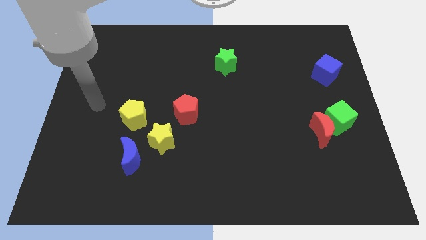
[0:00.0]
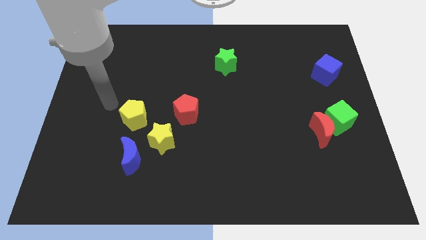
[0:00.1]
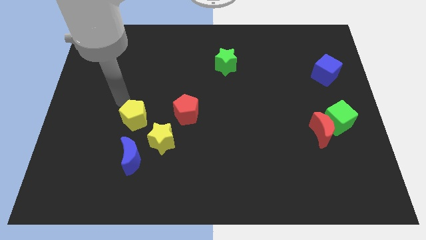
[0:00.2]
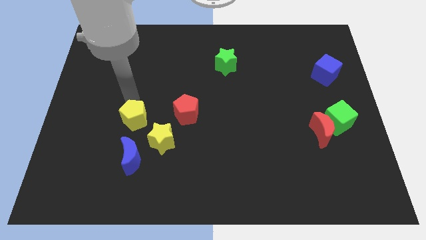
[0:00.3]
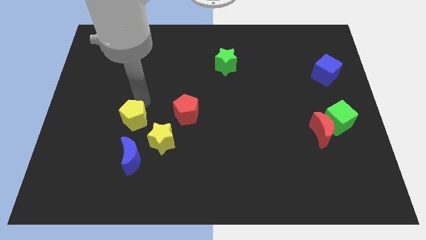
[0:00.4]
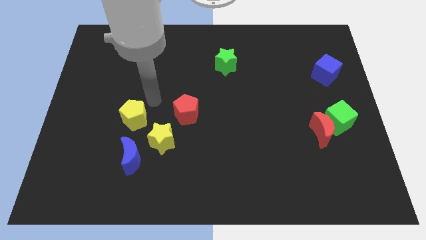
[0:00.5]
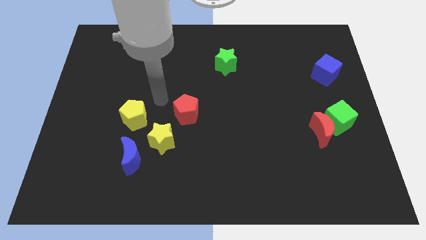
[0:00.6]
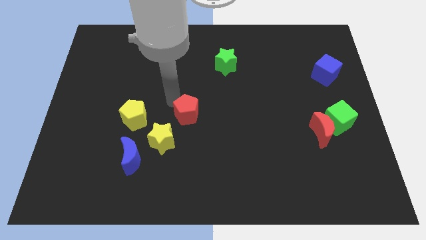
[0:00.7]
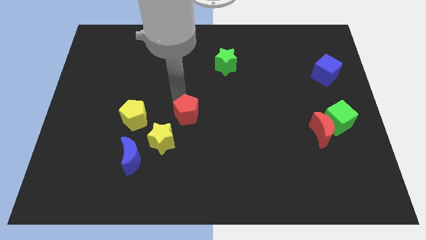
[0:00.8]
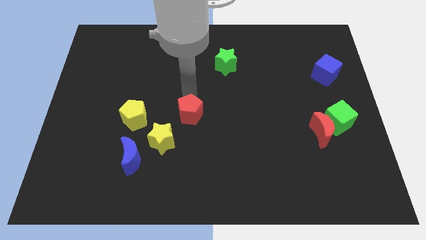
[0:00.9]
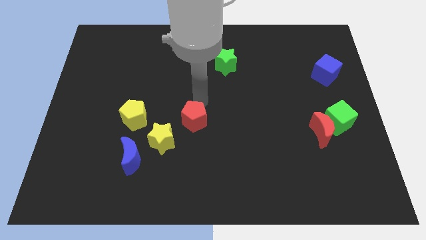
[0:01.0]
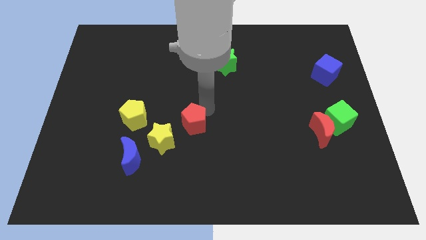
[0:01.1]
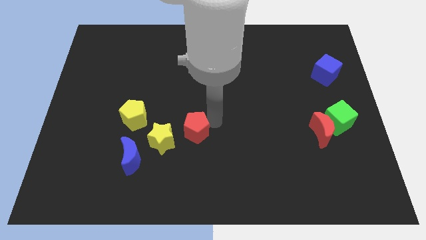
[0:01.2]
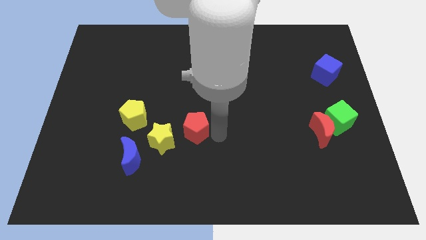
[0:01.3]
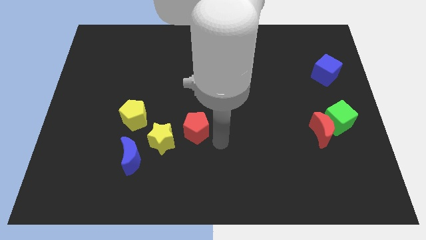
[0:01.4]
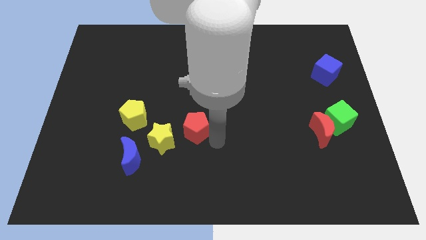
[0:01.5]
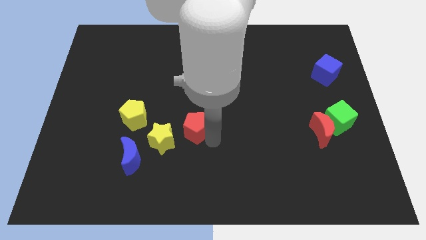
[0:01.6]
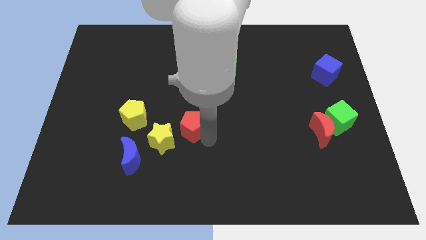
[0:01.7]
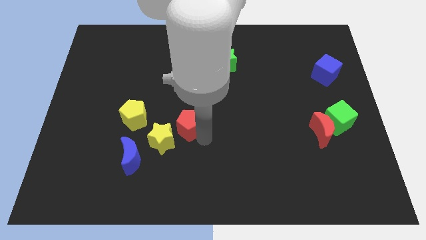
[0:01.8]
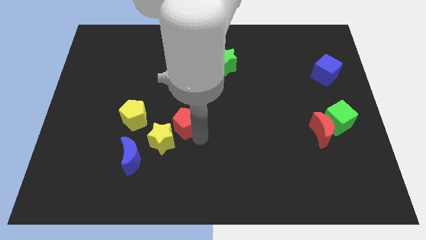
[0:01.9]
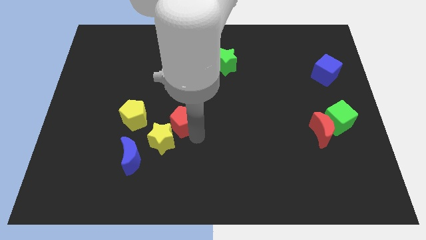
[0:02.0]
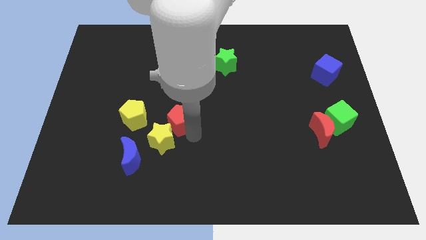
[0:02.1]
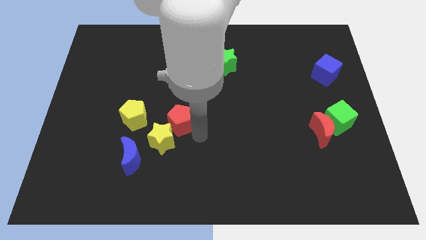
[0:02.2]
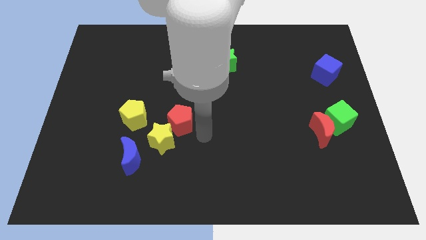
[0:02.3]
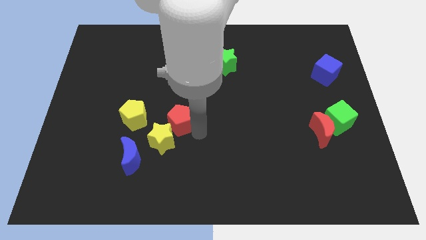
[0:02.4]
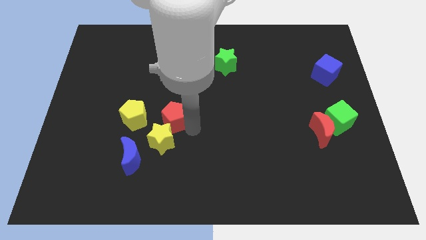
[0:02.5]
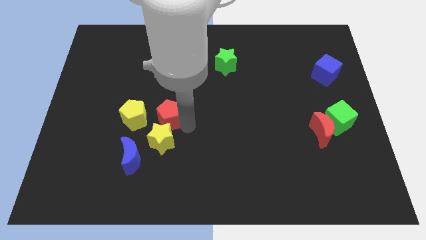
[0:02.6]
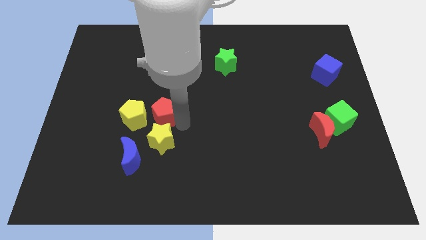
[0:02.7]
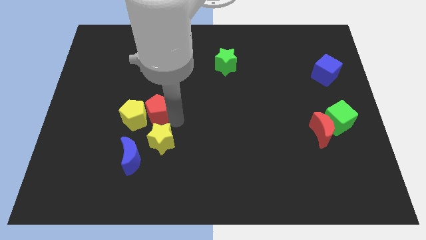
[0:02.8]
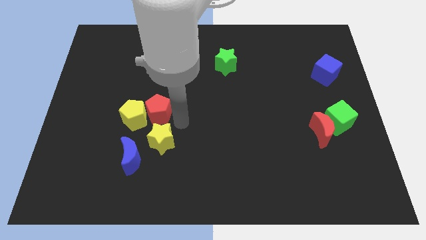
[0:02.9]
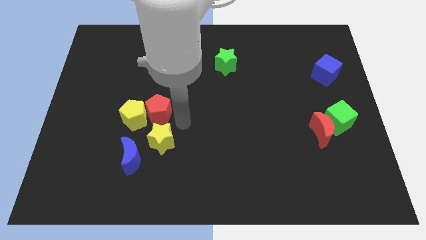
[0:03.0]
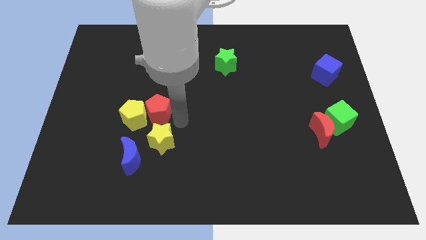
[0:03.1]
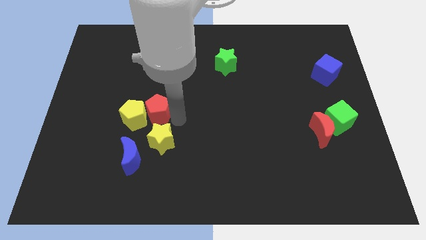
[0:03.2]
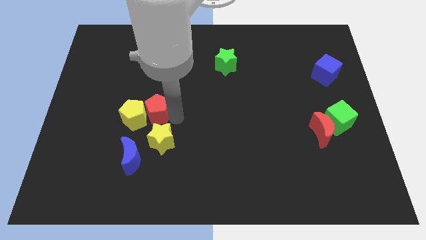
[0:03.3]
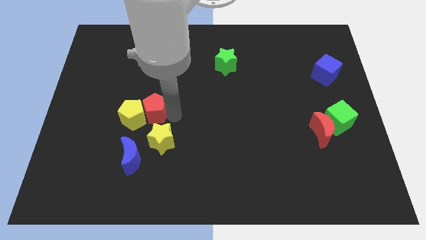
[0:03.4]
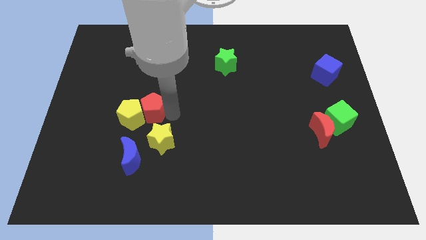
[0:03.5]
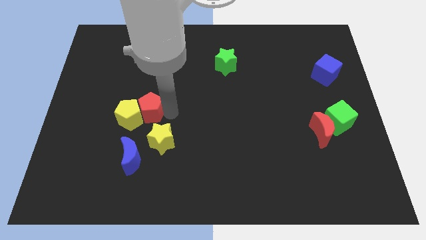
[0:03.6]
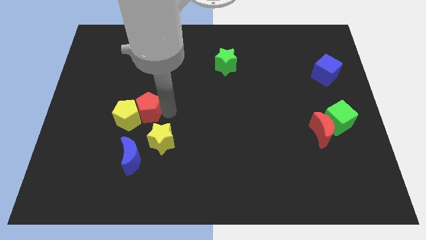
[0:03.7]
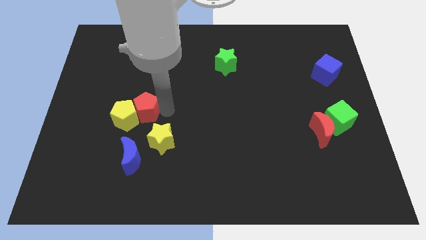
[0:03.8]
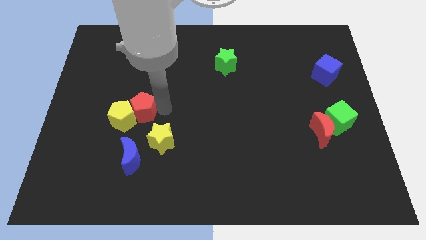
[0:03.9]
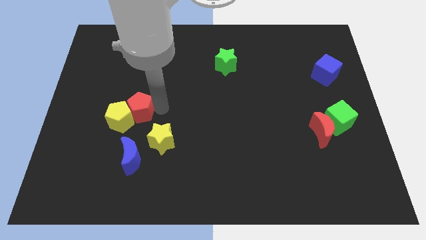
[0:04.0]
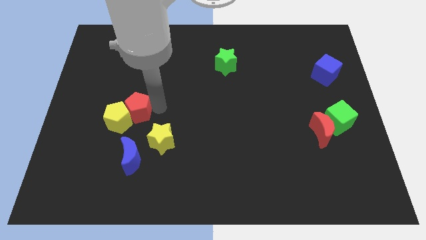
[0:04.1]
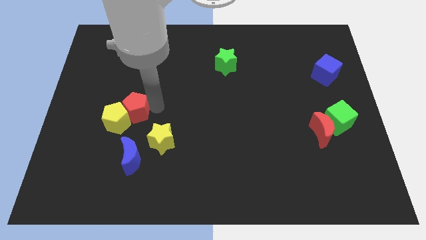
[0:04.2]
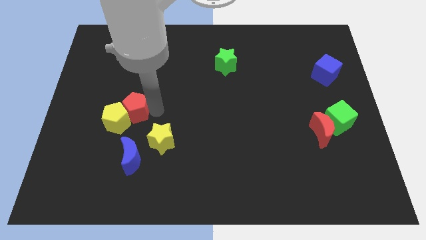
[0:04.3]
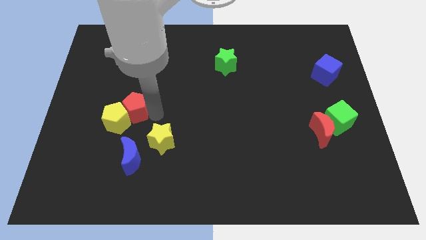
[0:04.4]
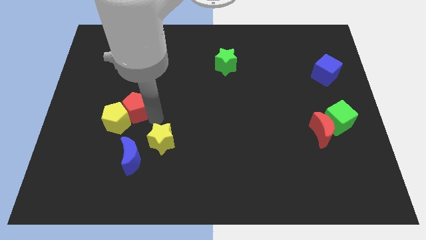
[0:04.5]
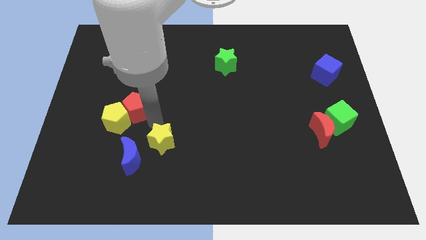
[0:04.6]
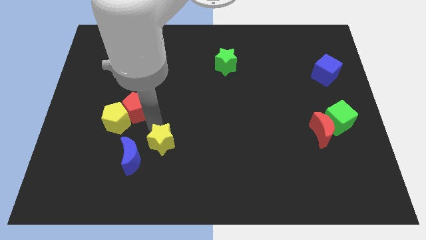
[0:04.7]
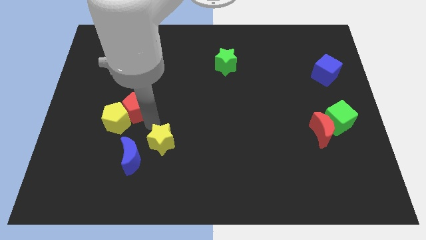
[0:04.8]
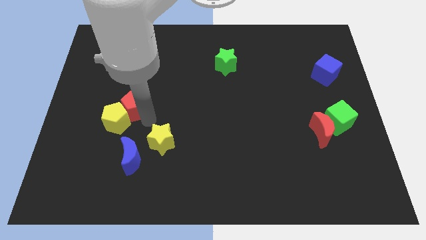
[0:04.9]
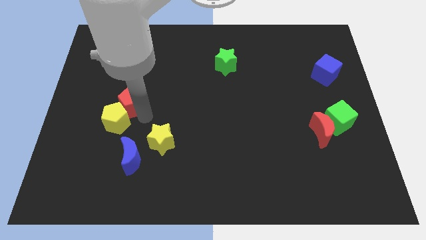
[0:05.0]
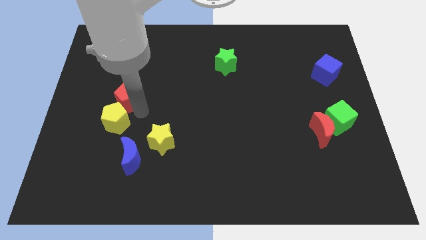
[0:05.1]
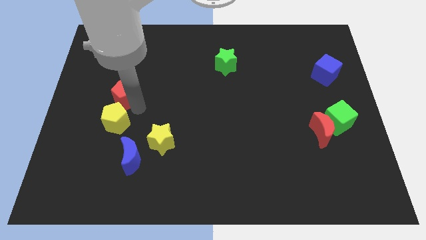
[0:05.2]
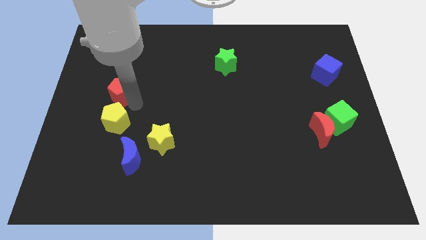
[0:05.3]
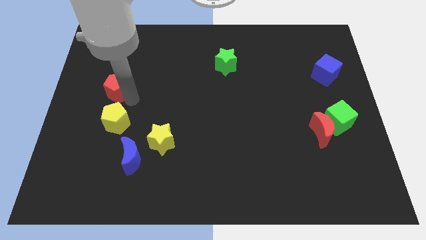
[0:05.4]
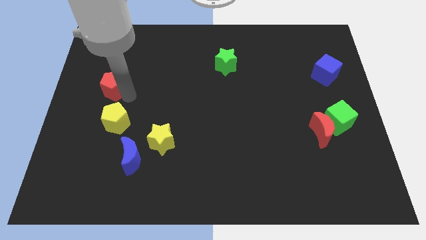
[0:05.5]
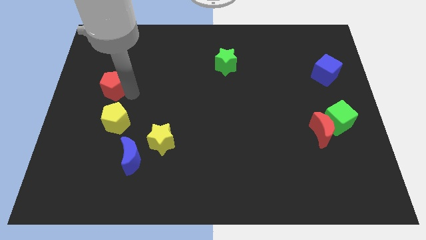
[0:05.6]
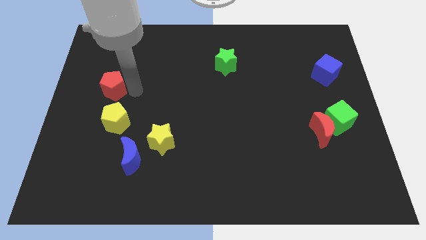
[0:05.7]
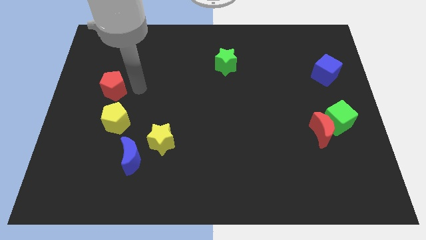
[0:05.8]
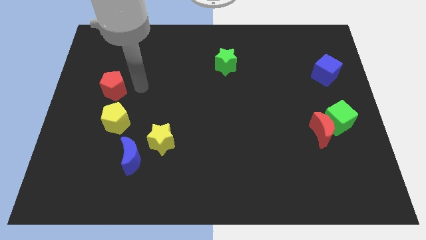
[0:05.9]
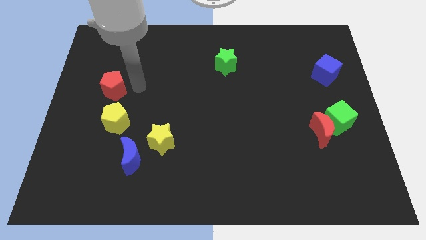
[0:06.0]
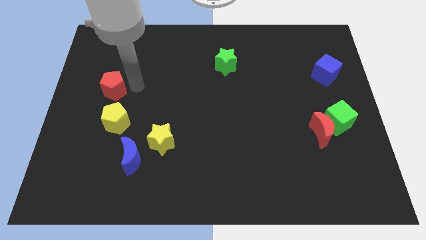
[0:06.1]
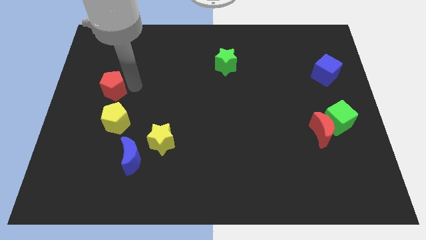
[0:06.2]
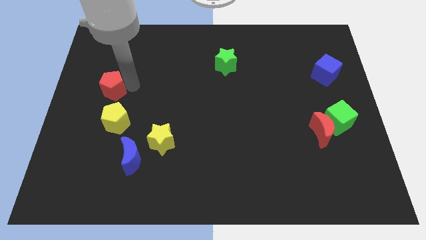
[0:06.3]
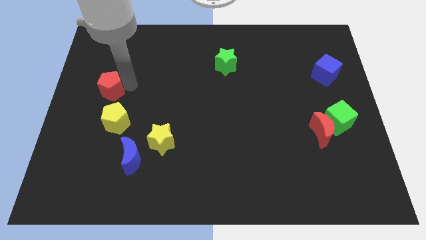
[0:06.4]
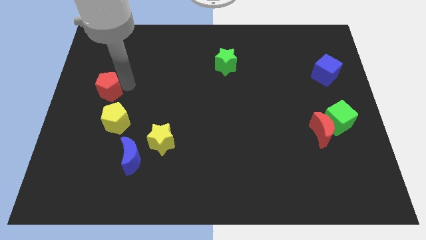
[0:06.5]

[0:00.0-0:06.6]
push the red pentagon to the left side

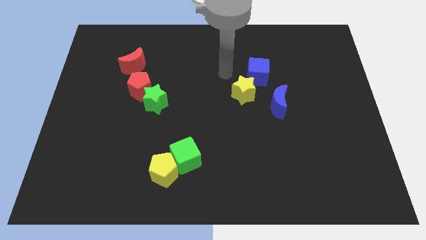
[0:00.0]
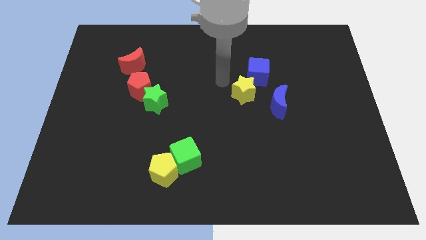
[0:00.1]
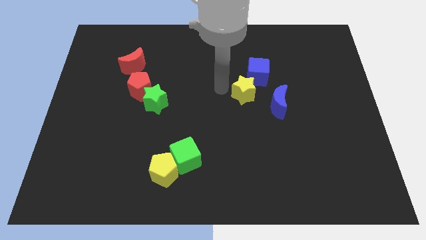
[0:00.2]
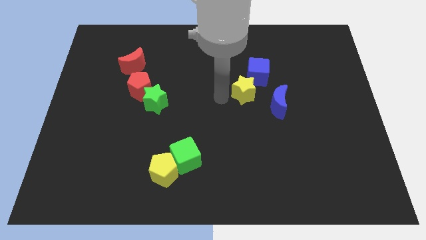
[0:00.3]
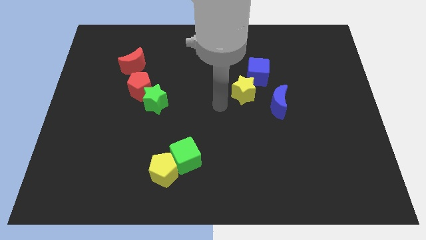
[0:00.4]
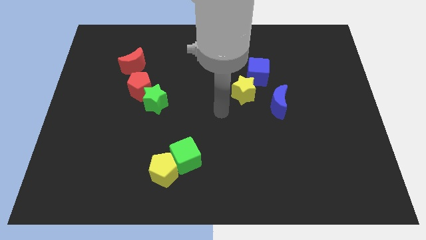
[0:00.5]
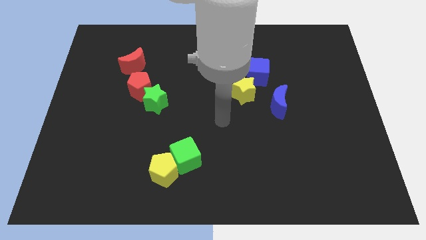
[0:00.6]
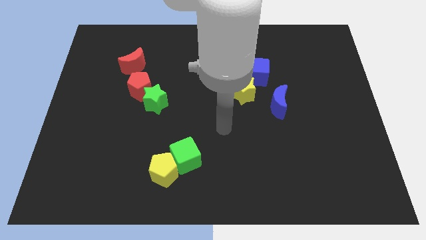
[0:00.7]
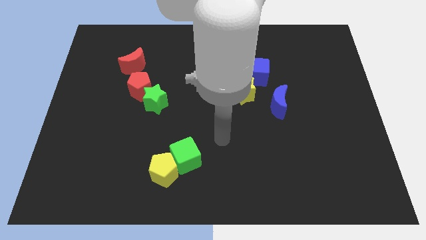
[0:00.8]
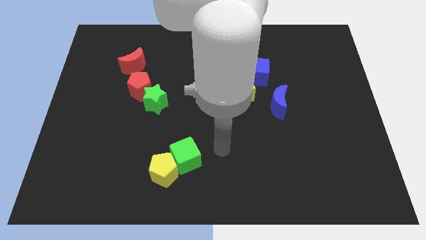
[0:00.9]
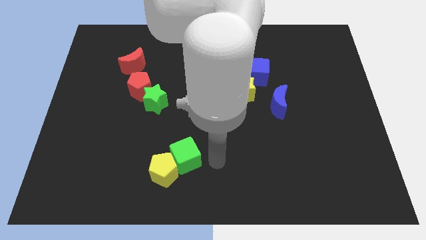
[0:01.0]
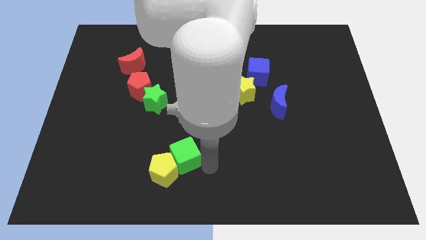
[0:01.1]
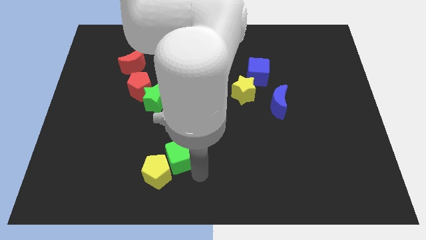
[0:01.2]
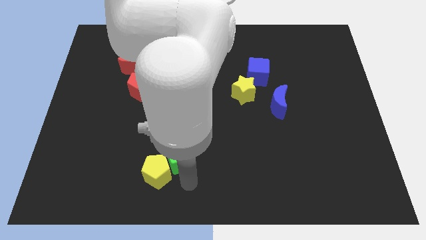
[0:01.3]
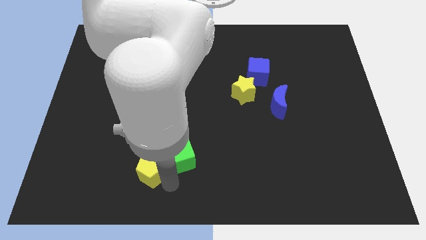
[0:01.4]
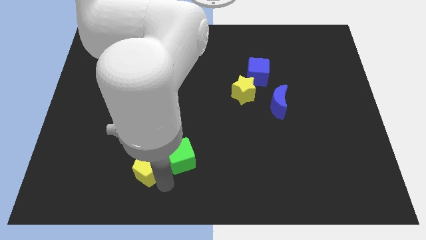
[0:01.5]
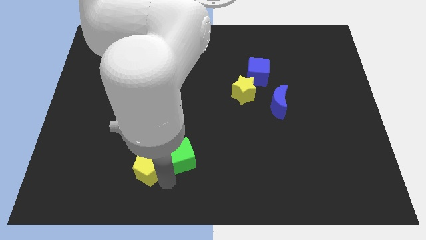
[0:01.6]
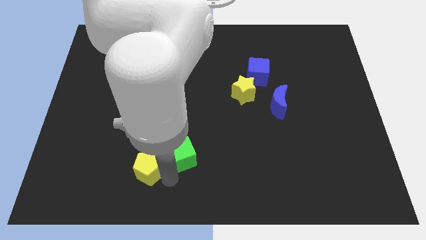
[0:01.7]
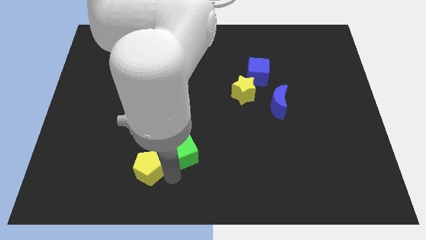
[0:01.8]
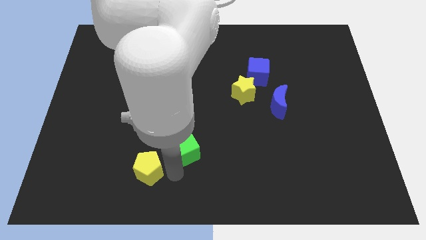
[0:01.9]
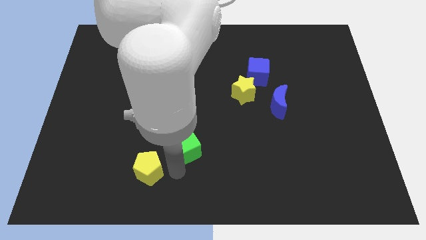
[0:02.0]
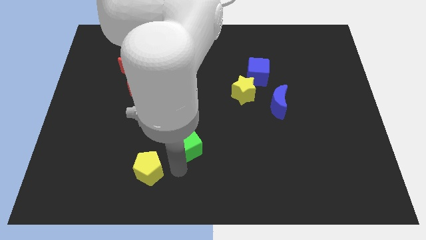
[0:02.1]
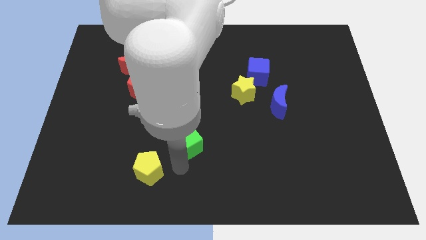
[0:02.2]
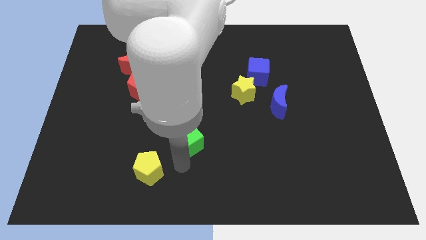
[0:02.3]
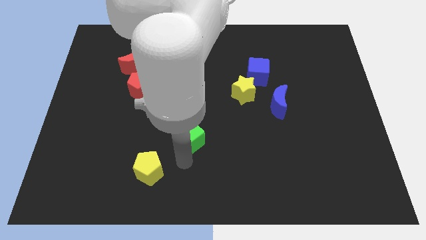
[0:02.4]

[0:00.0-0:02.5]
slide the green cube to the center of the board
